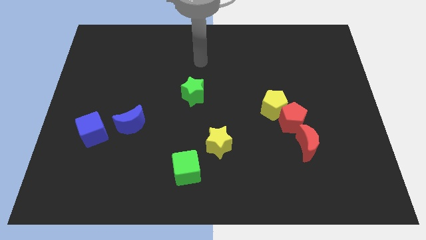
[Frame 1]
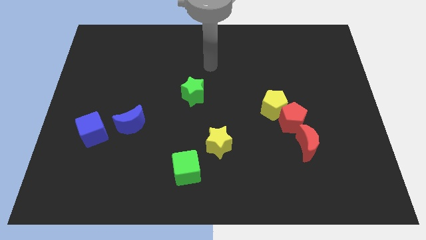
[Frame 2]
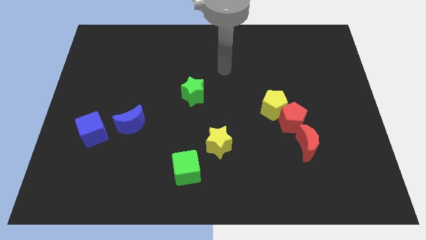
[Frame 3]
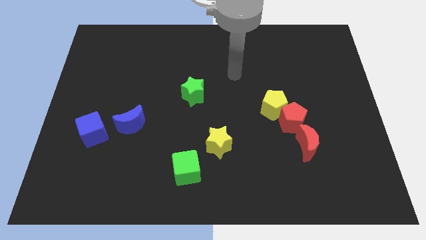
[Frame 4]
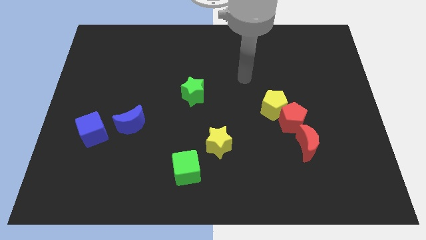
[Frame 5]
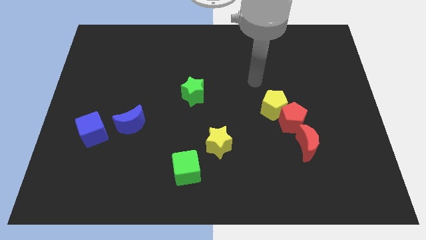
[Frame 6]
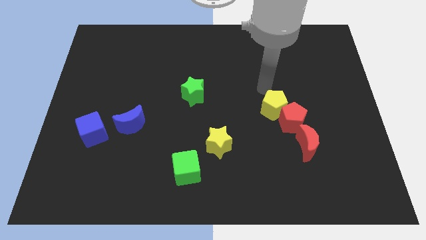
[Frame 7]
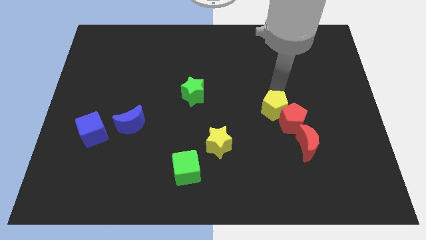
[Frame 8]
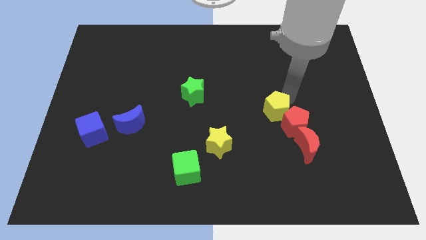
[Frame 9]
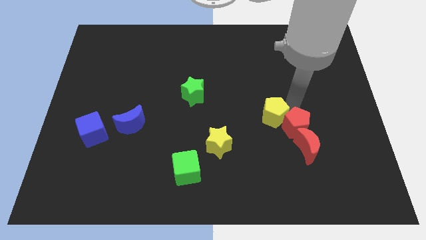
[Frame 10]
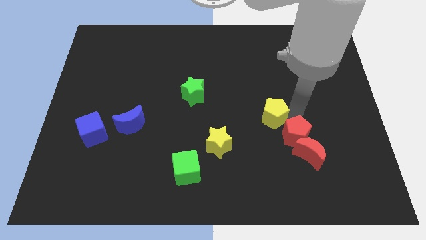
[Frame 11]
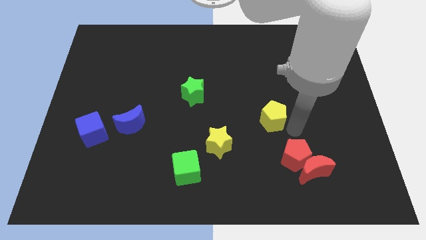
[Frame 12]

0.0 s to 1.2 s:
pull the yellow pentagon apart from the red pentagon

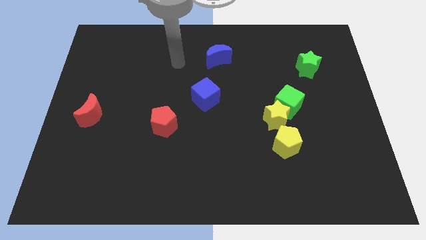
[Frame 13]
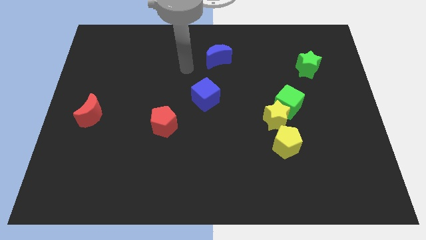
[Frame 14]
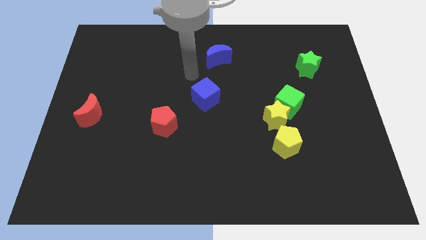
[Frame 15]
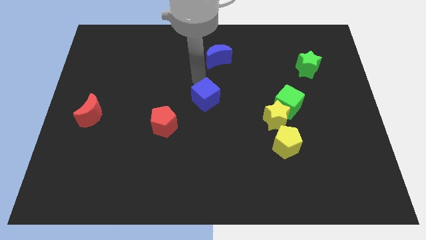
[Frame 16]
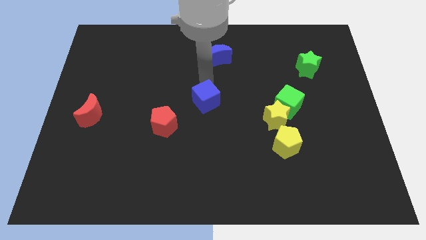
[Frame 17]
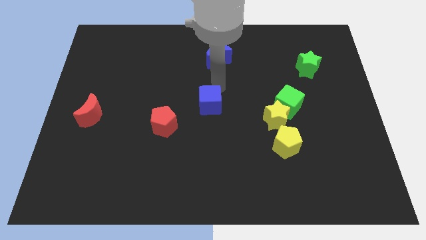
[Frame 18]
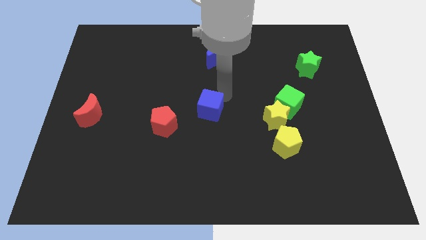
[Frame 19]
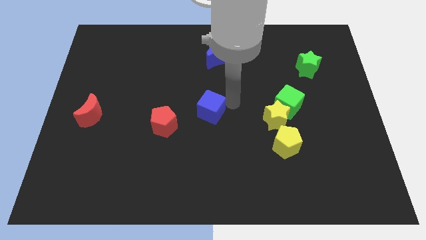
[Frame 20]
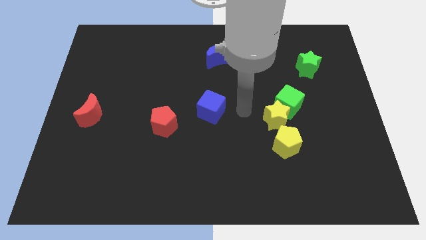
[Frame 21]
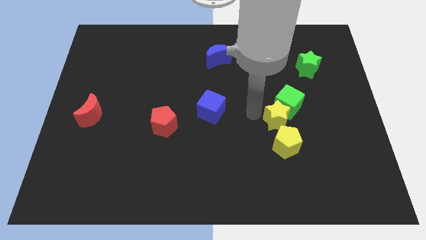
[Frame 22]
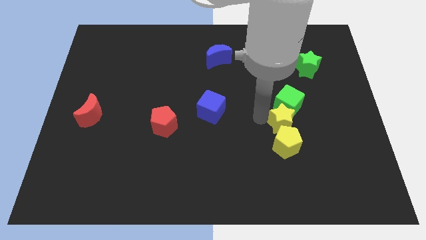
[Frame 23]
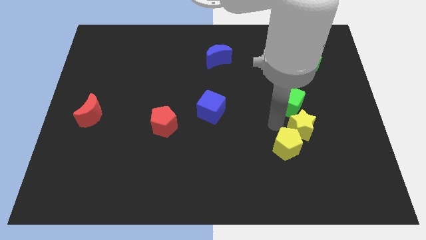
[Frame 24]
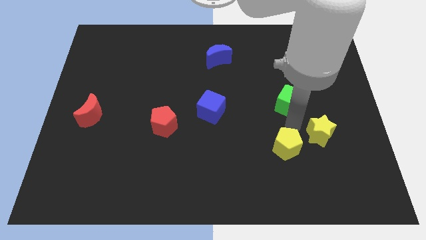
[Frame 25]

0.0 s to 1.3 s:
pull the green cube apart from the yellow star

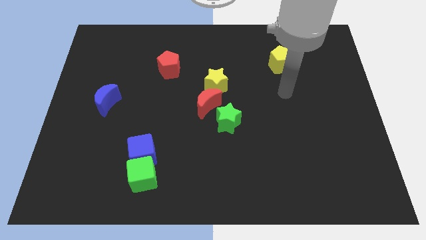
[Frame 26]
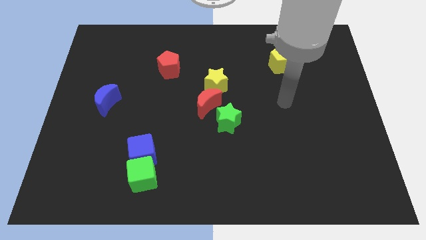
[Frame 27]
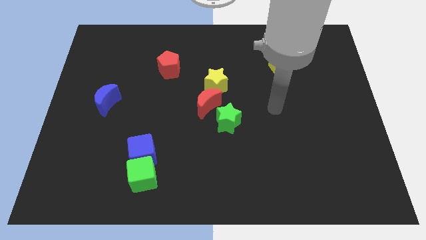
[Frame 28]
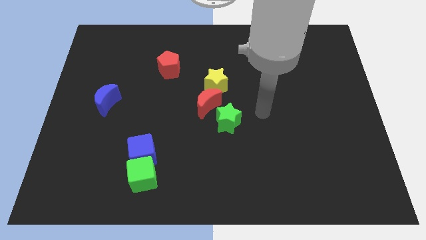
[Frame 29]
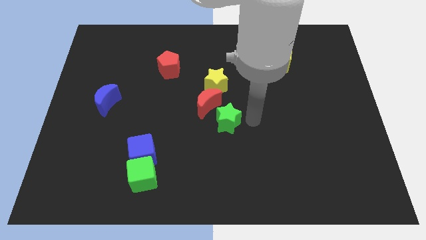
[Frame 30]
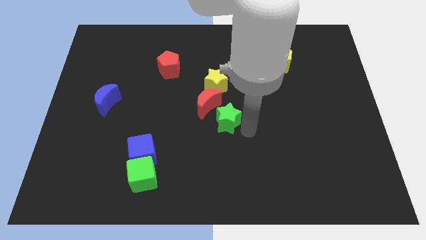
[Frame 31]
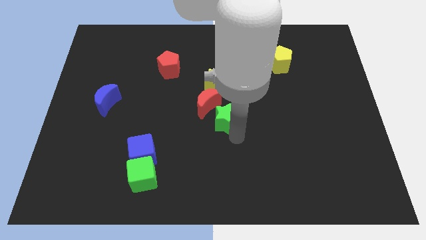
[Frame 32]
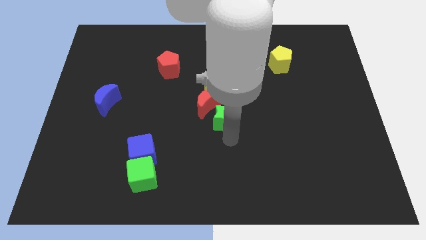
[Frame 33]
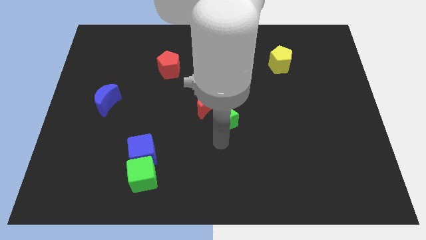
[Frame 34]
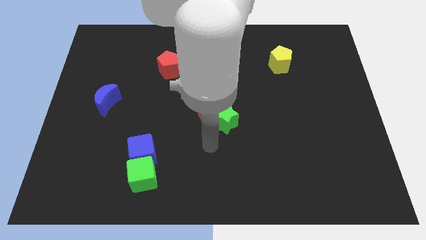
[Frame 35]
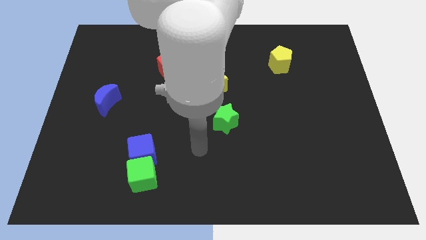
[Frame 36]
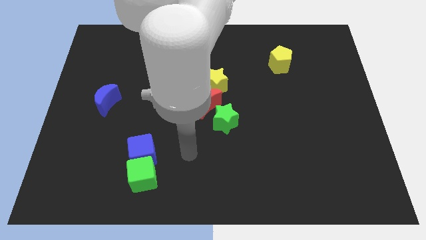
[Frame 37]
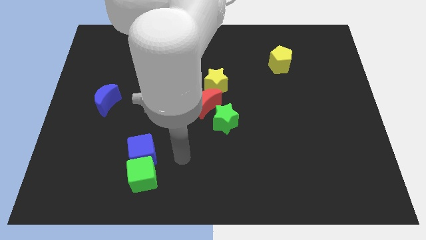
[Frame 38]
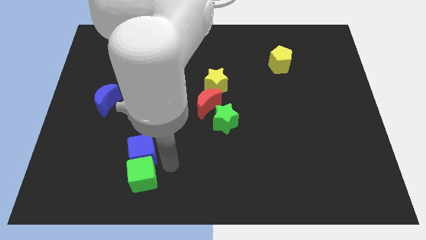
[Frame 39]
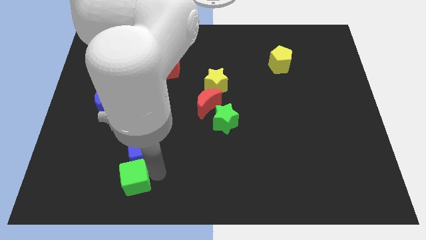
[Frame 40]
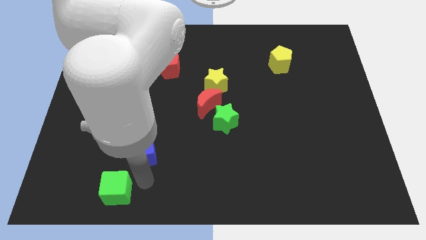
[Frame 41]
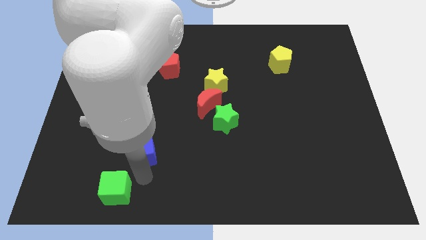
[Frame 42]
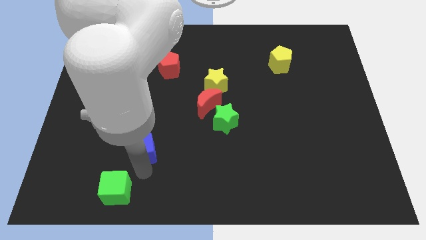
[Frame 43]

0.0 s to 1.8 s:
move the blue cube away from the green cube

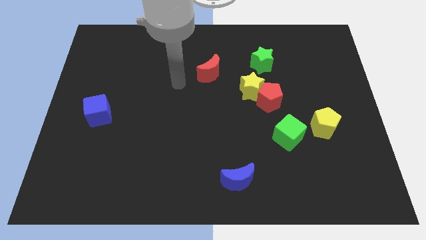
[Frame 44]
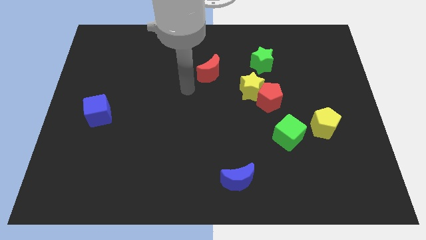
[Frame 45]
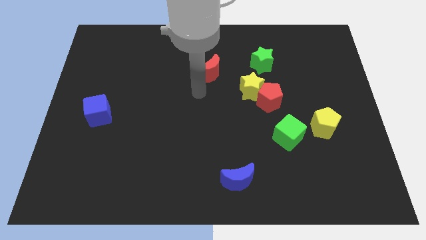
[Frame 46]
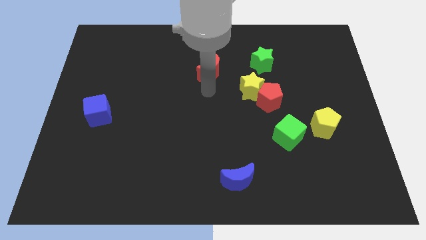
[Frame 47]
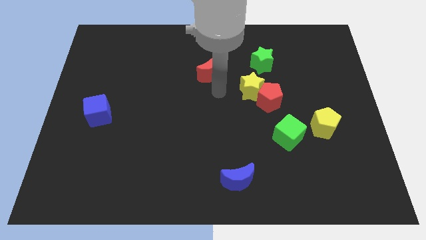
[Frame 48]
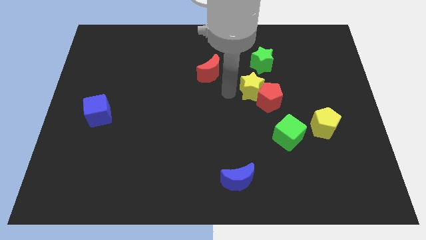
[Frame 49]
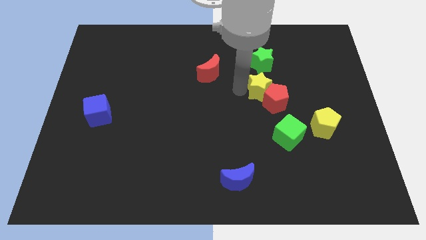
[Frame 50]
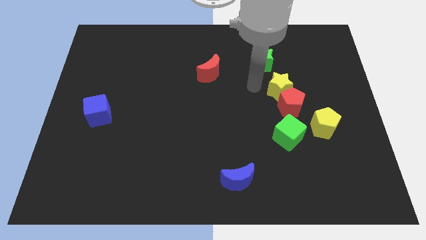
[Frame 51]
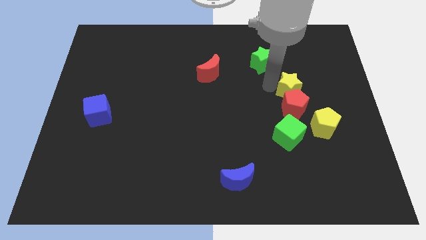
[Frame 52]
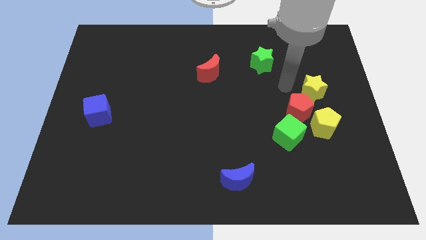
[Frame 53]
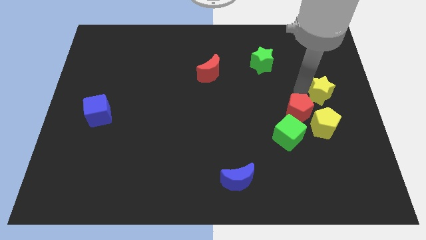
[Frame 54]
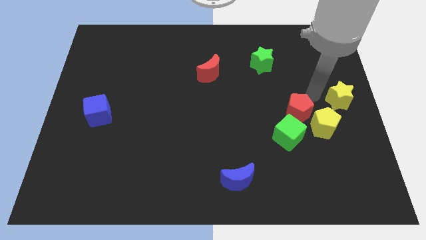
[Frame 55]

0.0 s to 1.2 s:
move the red pentagon away from the yellow star

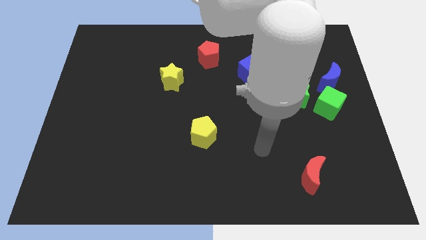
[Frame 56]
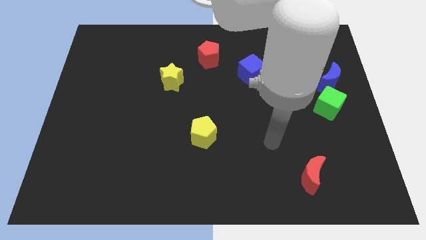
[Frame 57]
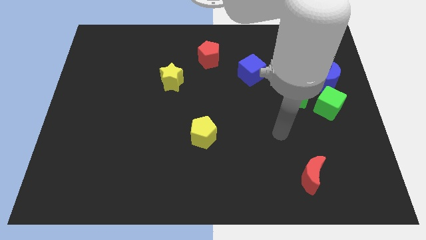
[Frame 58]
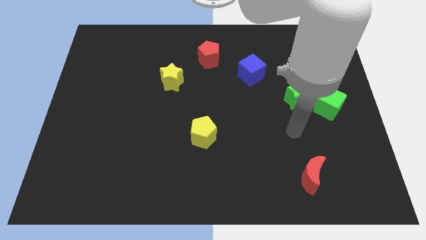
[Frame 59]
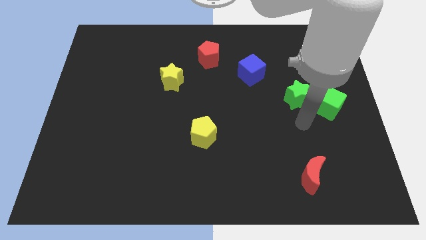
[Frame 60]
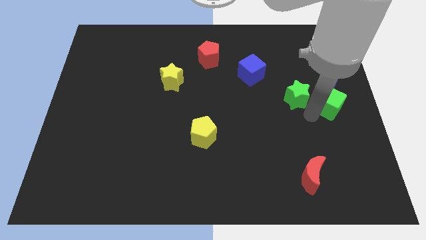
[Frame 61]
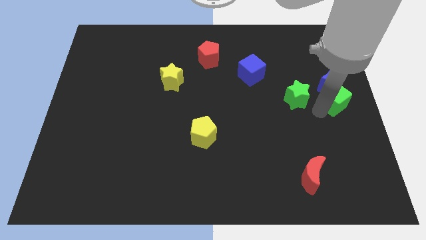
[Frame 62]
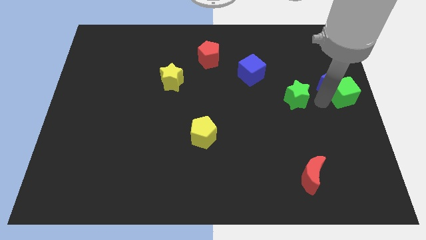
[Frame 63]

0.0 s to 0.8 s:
separate the green star from the green cube

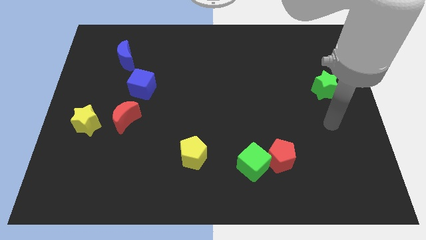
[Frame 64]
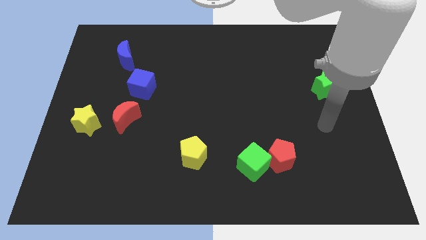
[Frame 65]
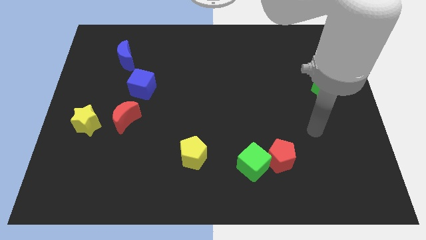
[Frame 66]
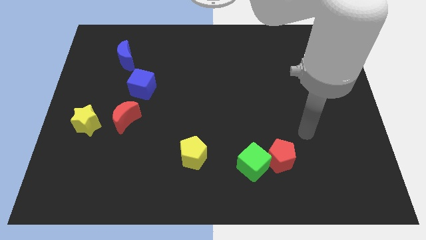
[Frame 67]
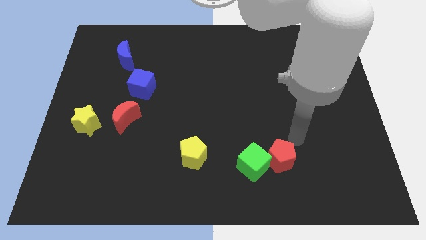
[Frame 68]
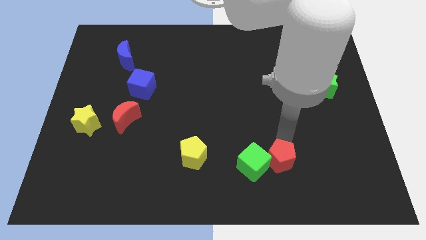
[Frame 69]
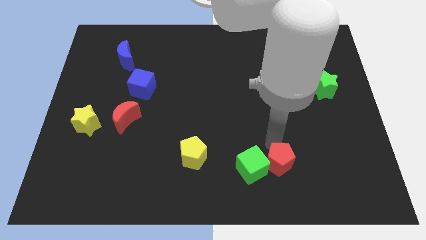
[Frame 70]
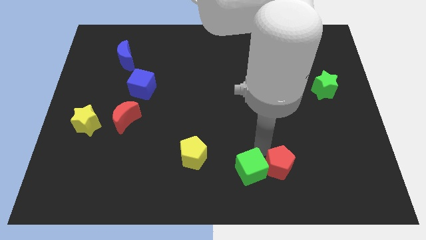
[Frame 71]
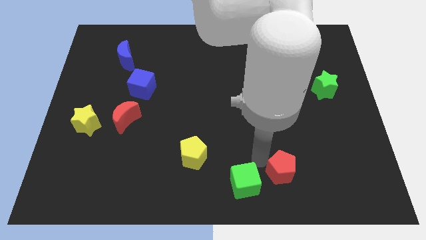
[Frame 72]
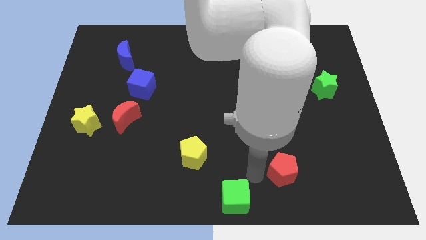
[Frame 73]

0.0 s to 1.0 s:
pull the red pentagon apart from the green cube

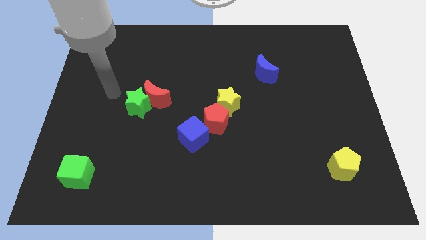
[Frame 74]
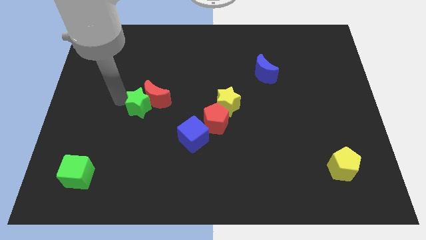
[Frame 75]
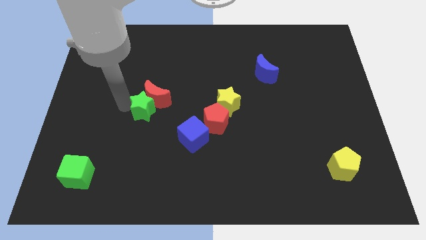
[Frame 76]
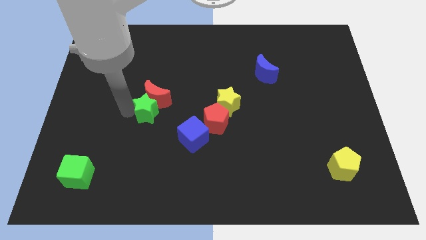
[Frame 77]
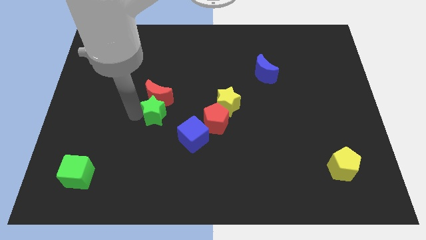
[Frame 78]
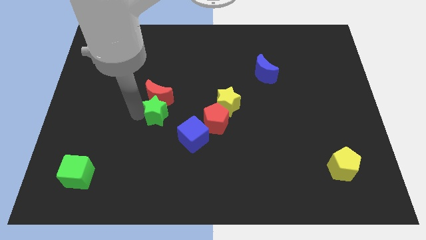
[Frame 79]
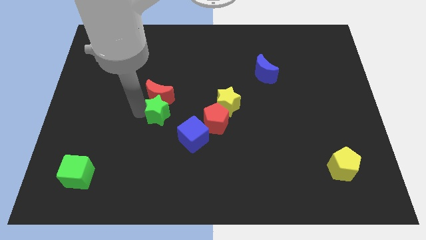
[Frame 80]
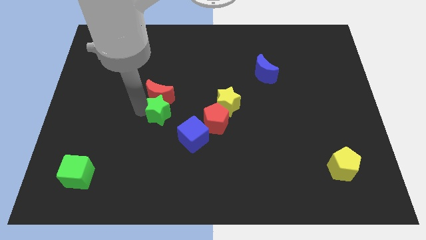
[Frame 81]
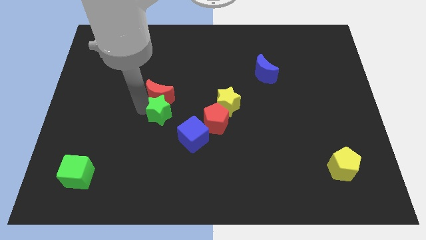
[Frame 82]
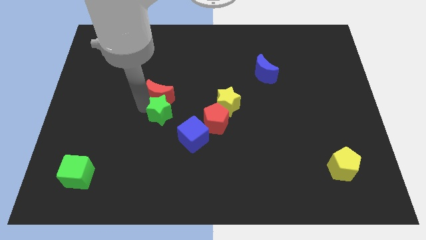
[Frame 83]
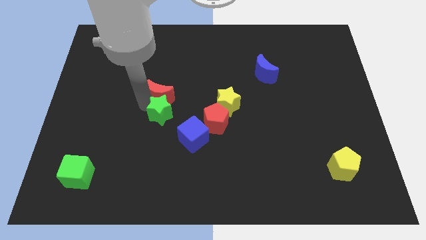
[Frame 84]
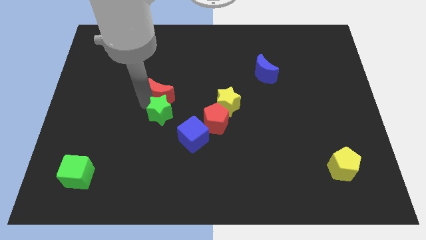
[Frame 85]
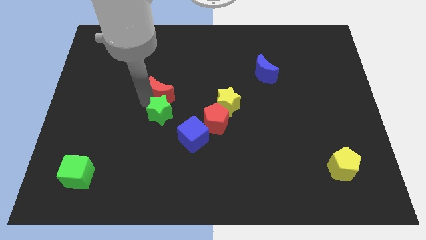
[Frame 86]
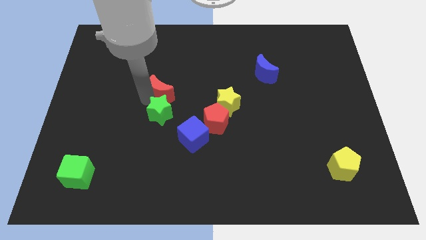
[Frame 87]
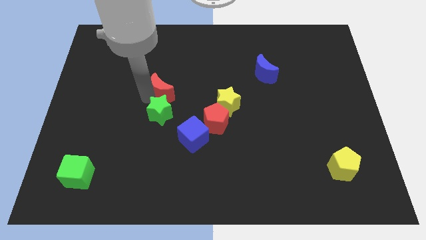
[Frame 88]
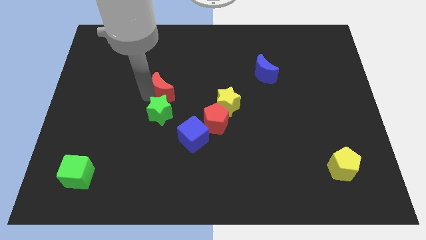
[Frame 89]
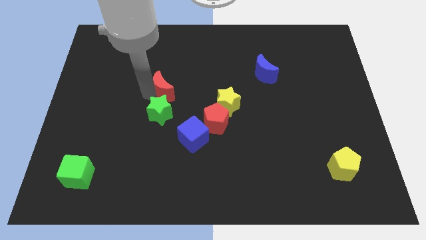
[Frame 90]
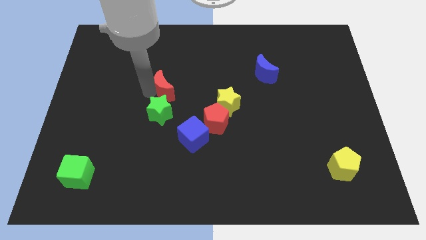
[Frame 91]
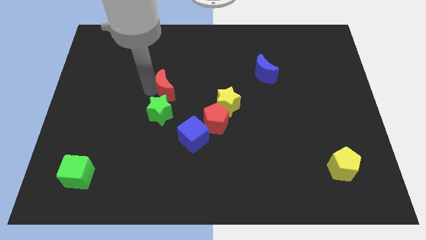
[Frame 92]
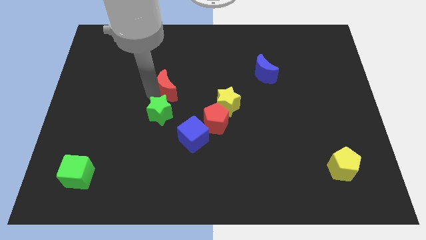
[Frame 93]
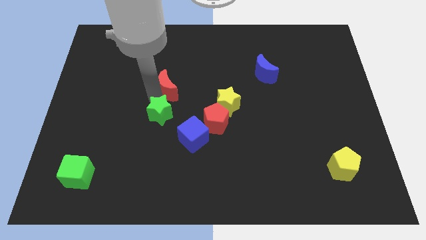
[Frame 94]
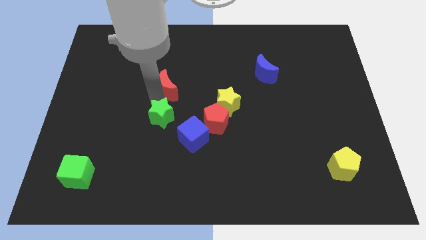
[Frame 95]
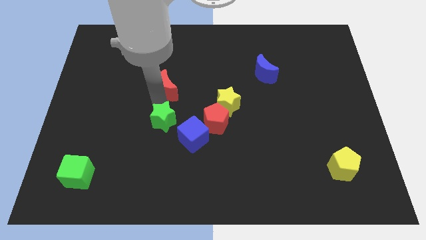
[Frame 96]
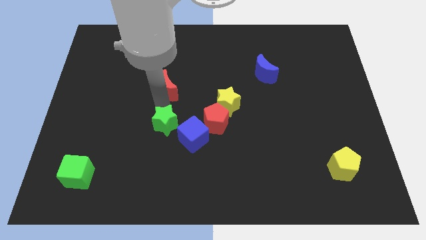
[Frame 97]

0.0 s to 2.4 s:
pull the red moon apart from the green star
